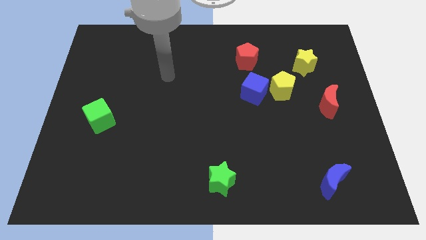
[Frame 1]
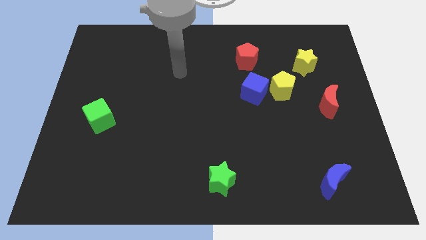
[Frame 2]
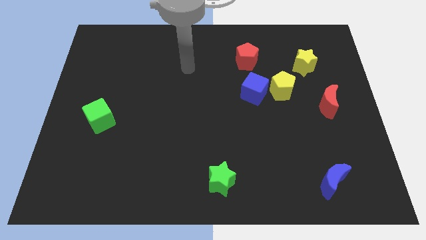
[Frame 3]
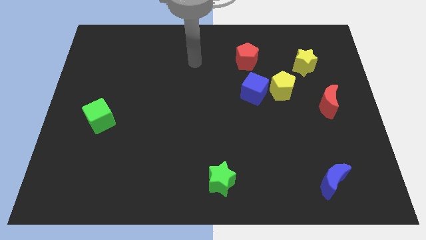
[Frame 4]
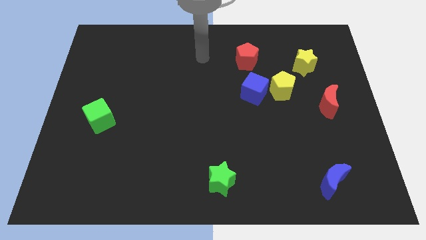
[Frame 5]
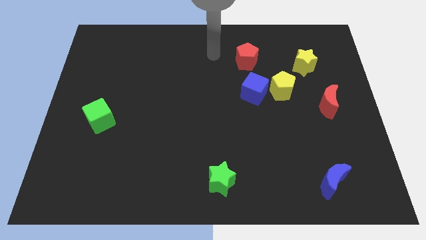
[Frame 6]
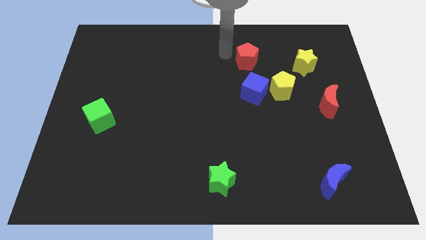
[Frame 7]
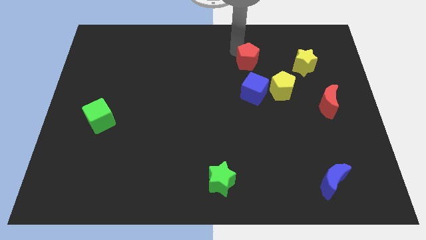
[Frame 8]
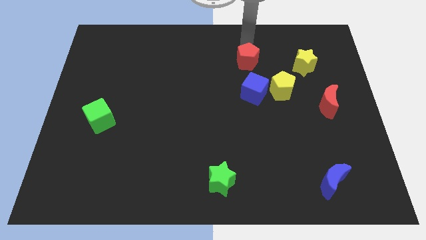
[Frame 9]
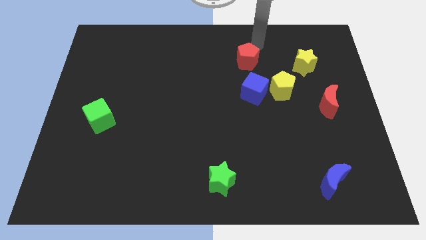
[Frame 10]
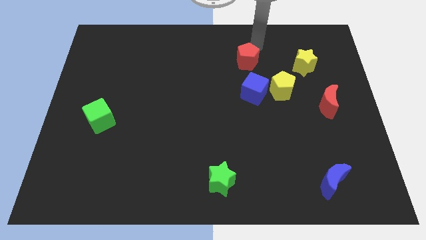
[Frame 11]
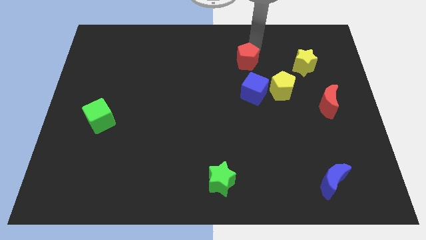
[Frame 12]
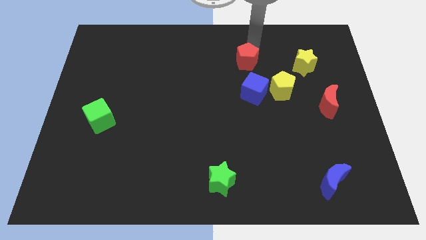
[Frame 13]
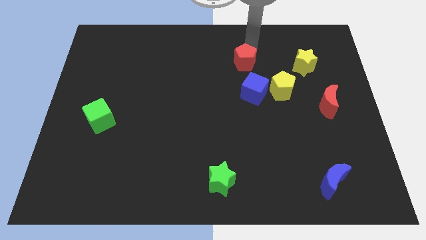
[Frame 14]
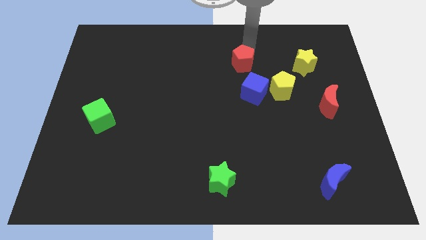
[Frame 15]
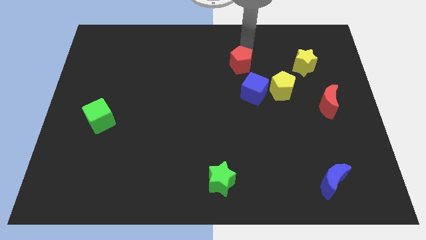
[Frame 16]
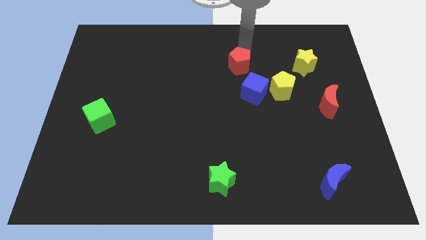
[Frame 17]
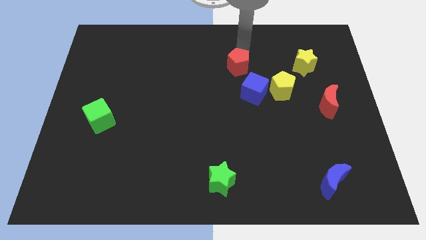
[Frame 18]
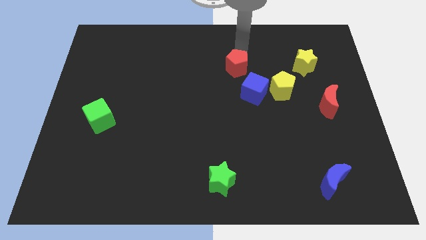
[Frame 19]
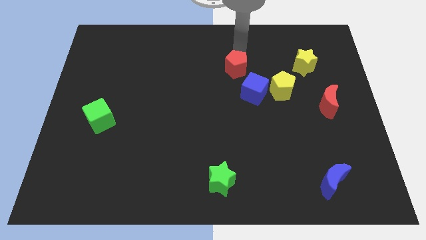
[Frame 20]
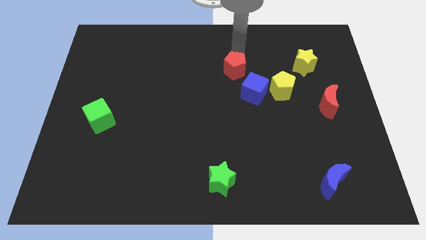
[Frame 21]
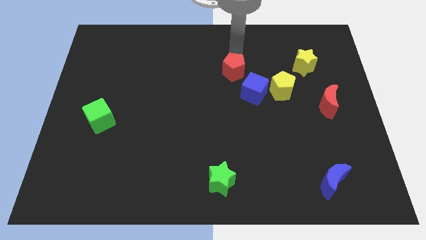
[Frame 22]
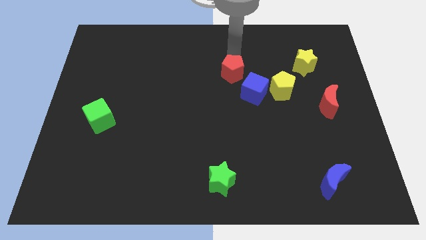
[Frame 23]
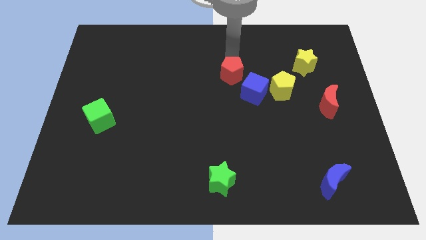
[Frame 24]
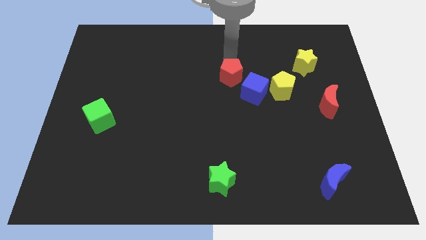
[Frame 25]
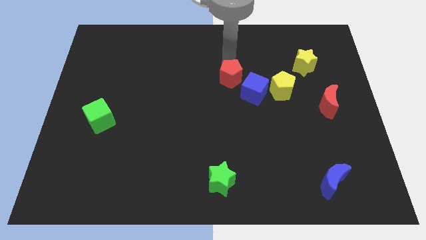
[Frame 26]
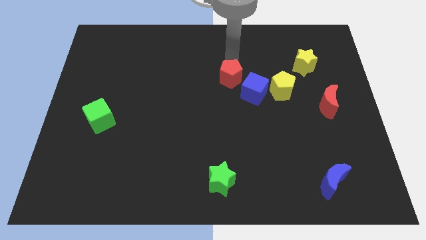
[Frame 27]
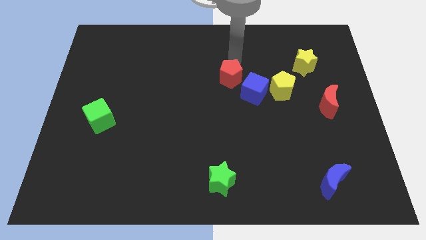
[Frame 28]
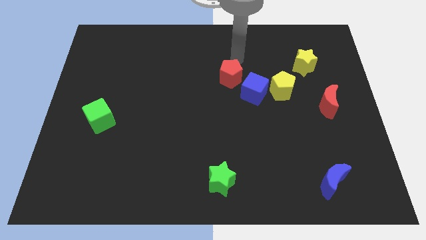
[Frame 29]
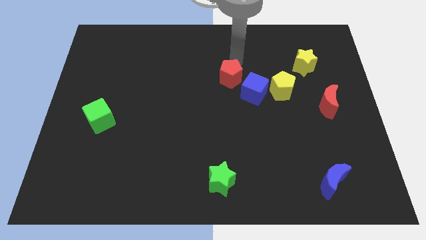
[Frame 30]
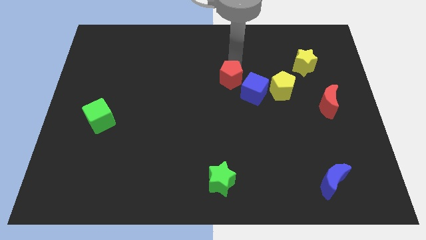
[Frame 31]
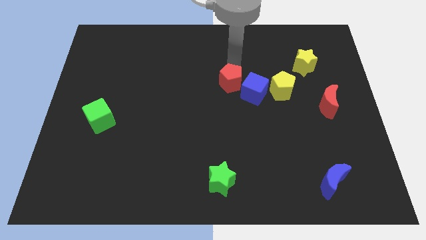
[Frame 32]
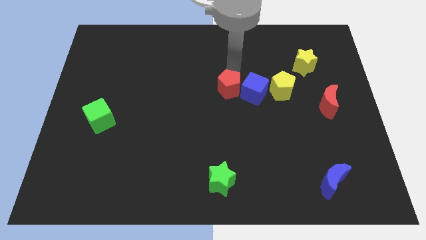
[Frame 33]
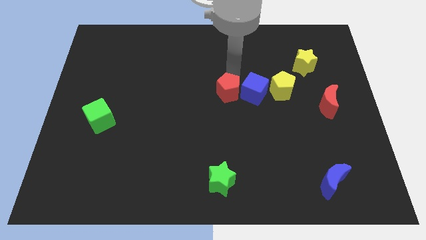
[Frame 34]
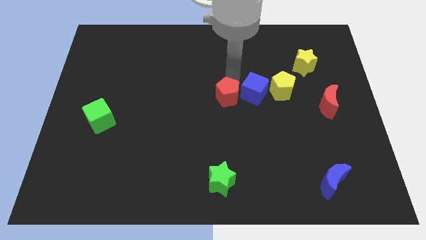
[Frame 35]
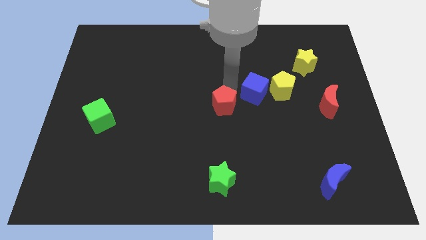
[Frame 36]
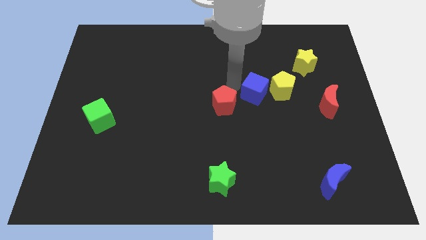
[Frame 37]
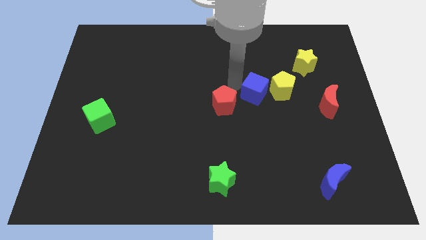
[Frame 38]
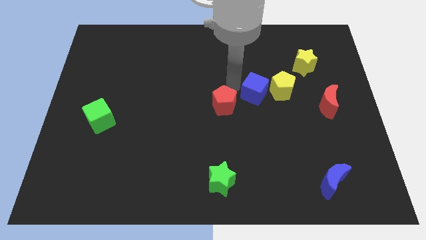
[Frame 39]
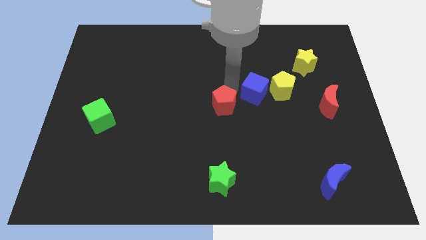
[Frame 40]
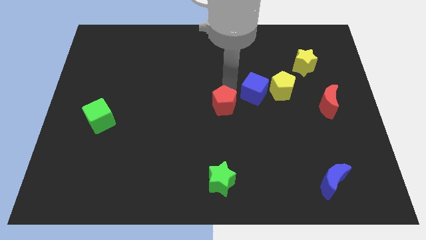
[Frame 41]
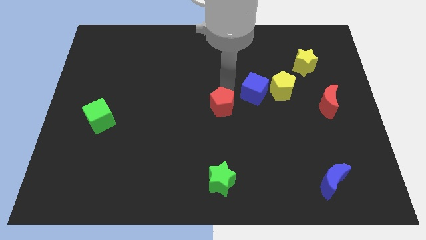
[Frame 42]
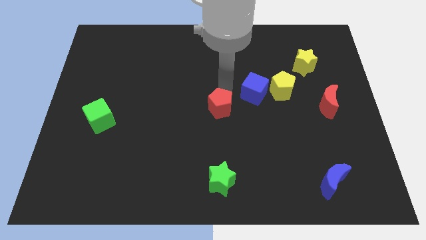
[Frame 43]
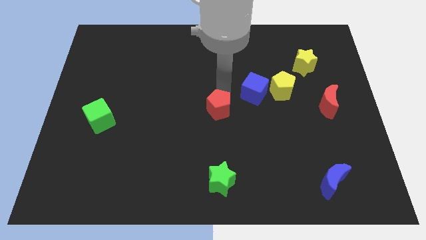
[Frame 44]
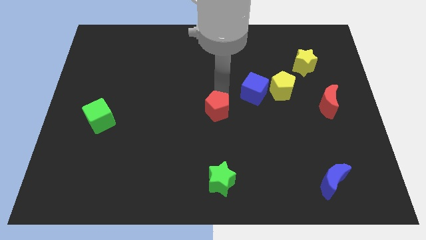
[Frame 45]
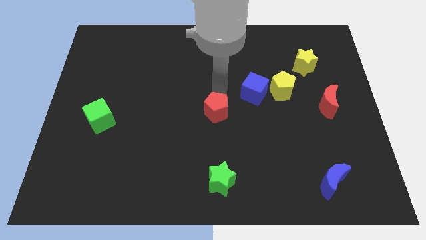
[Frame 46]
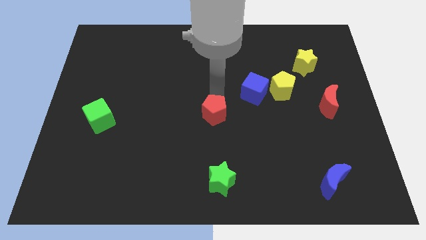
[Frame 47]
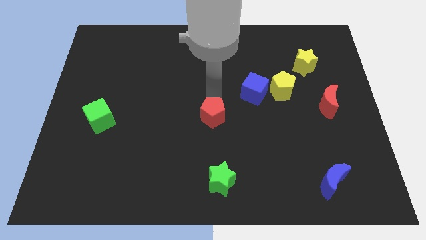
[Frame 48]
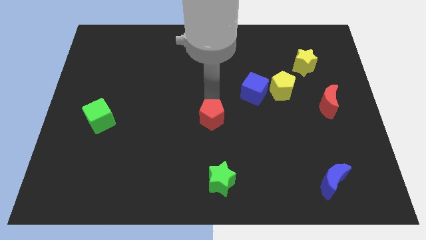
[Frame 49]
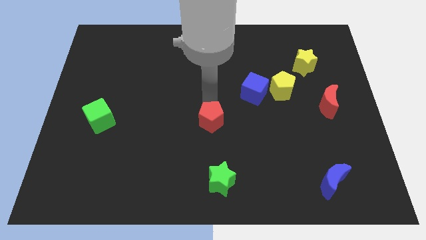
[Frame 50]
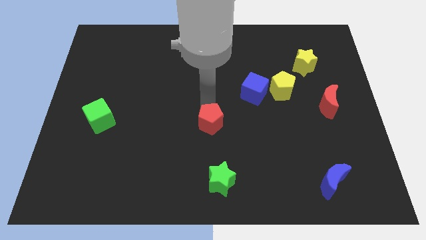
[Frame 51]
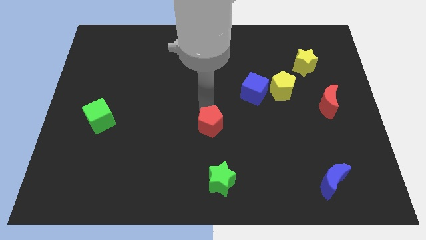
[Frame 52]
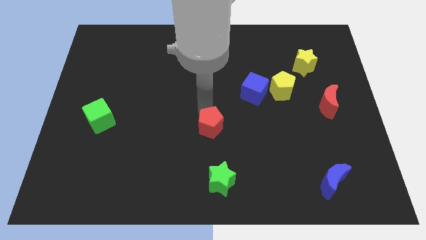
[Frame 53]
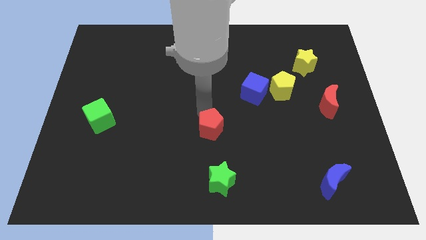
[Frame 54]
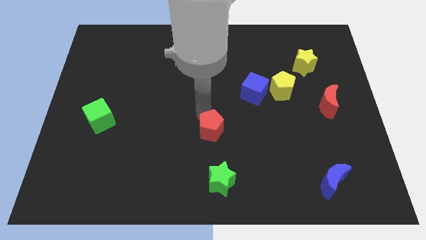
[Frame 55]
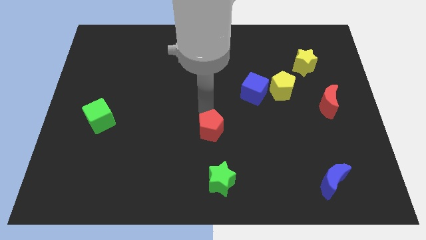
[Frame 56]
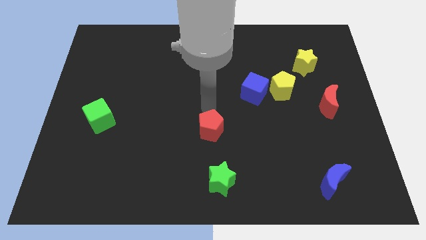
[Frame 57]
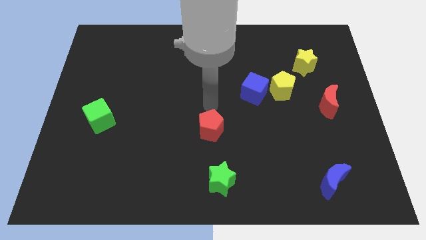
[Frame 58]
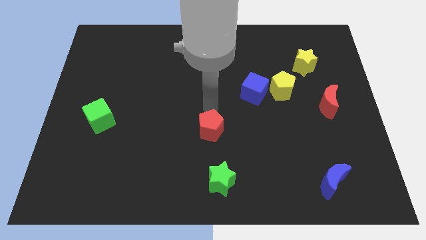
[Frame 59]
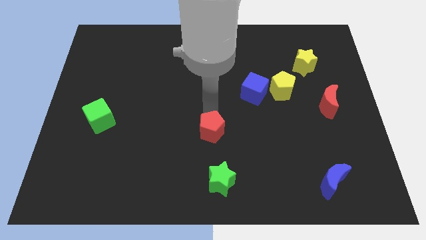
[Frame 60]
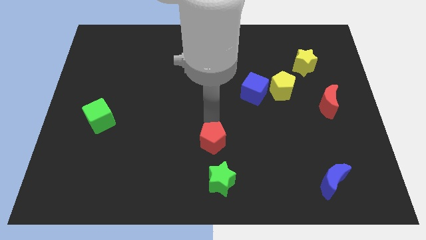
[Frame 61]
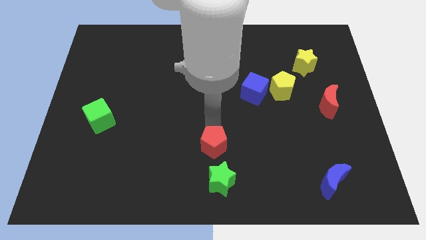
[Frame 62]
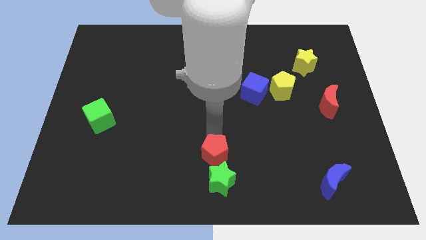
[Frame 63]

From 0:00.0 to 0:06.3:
slide the red pentagon to the bottom

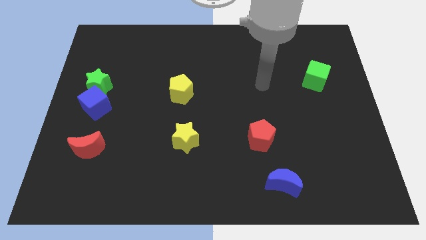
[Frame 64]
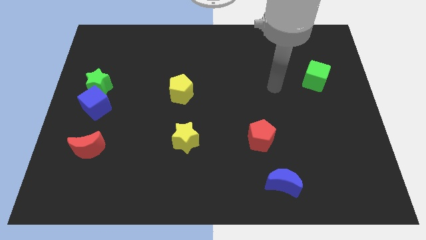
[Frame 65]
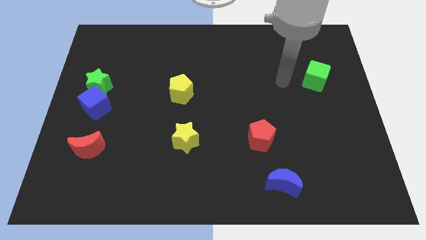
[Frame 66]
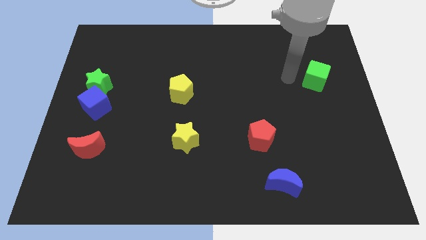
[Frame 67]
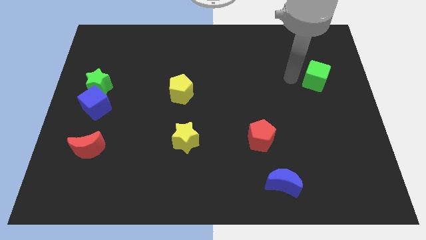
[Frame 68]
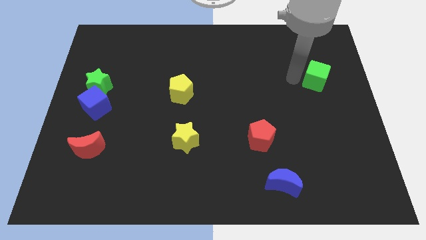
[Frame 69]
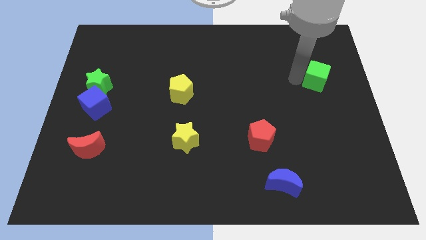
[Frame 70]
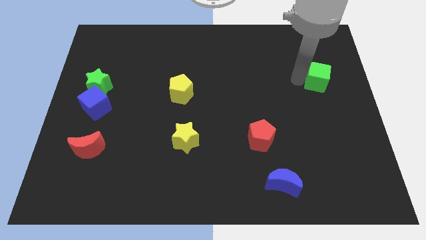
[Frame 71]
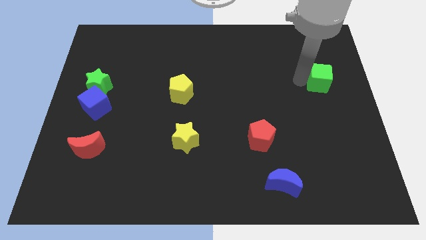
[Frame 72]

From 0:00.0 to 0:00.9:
move the green cube to the center right
